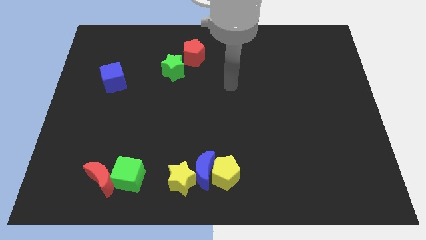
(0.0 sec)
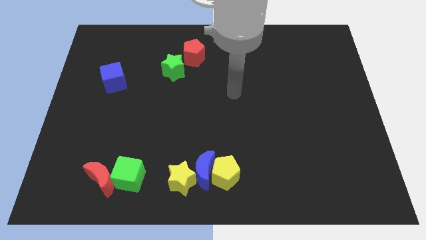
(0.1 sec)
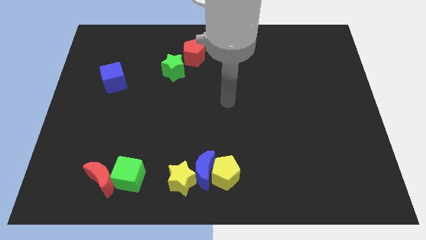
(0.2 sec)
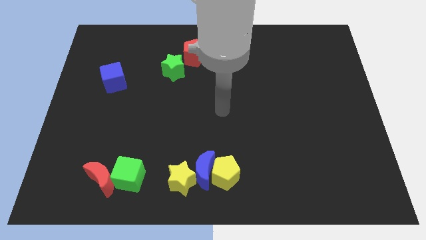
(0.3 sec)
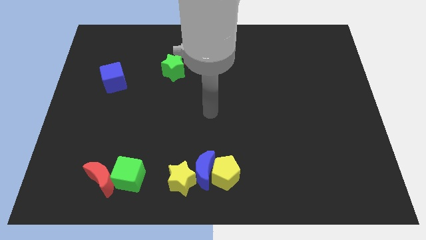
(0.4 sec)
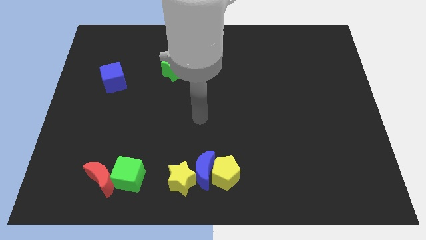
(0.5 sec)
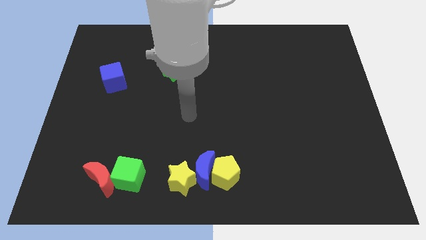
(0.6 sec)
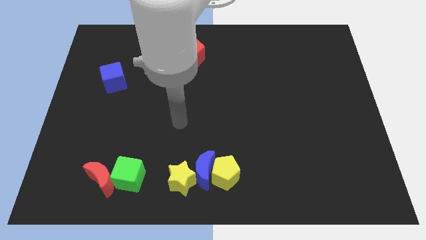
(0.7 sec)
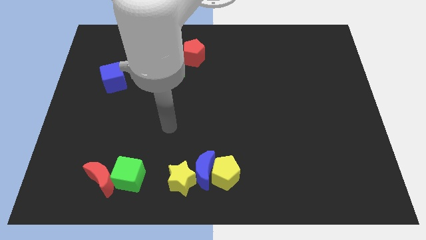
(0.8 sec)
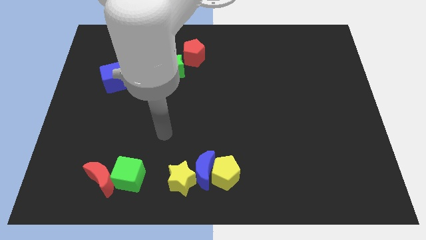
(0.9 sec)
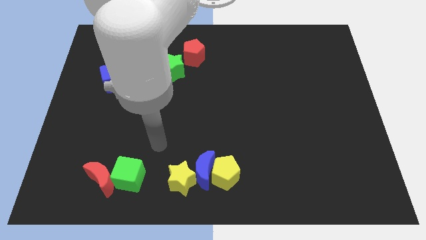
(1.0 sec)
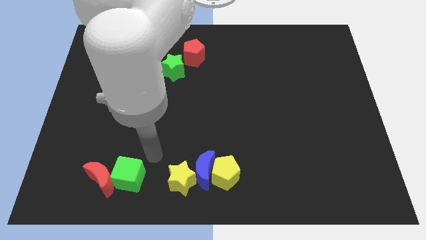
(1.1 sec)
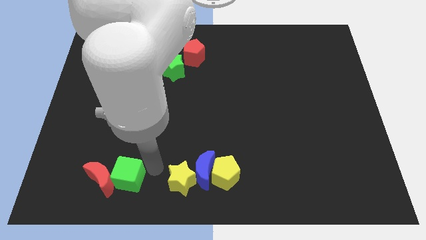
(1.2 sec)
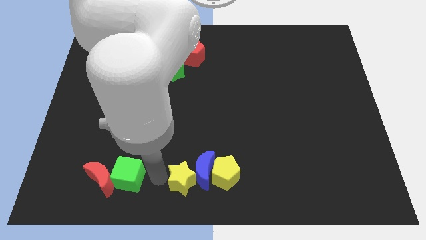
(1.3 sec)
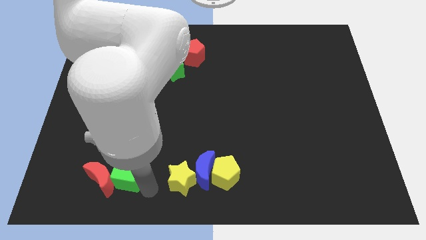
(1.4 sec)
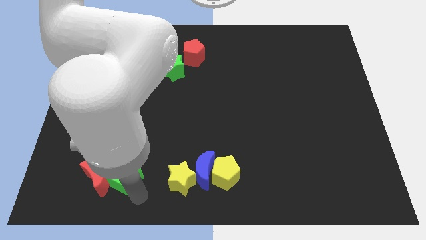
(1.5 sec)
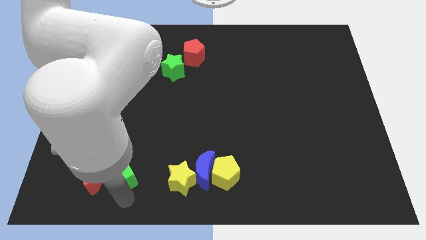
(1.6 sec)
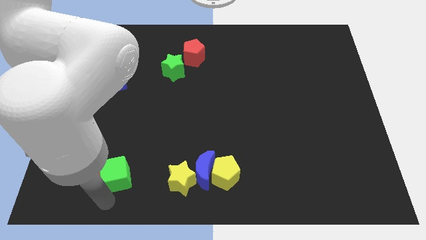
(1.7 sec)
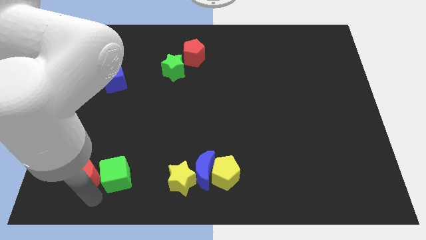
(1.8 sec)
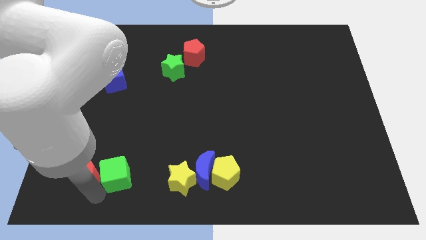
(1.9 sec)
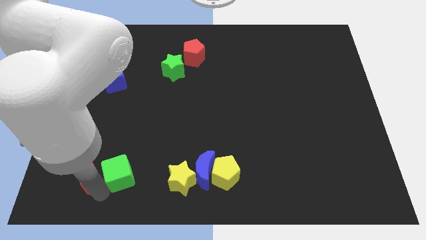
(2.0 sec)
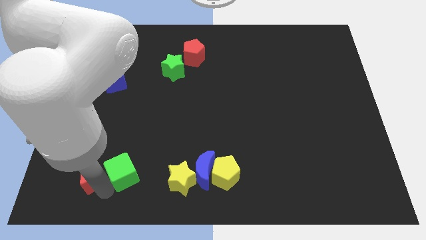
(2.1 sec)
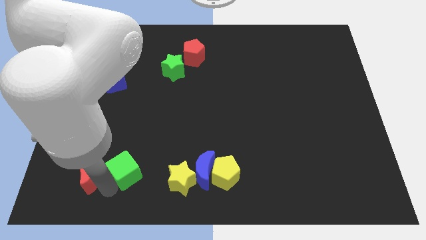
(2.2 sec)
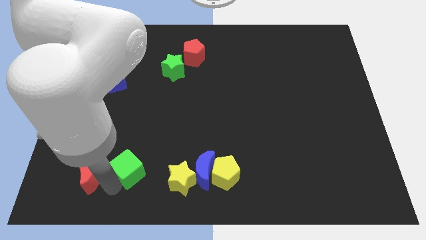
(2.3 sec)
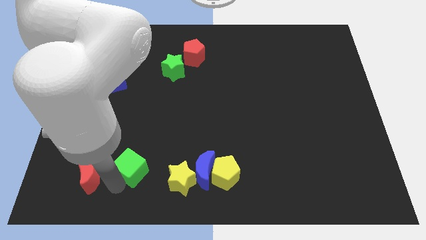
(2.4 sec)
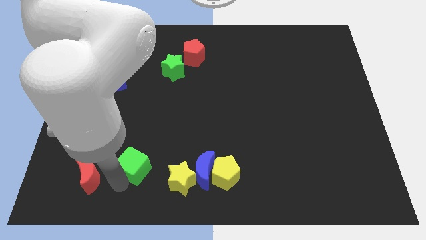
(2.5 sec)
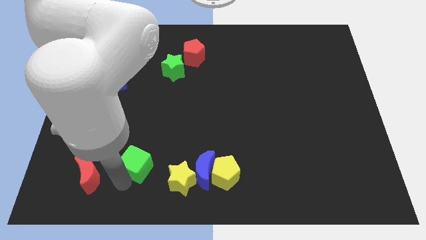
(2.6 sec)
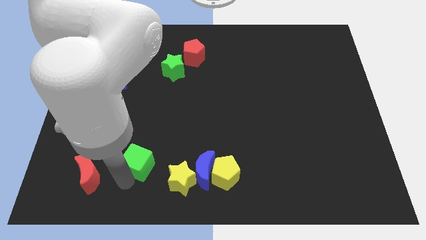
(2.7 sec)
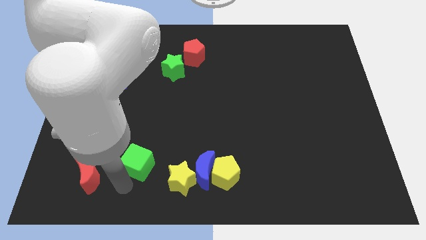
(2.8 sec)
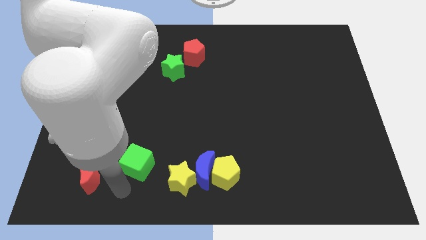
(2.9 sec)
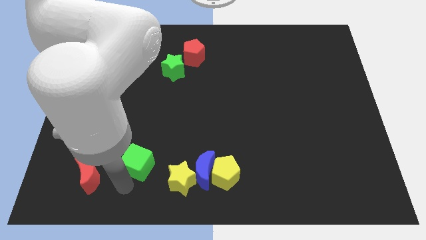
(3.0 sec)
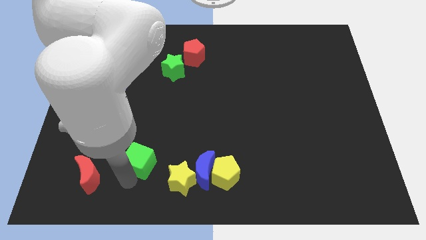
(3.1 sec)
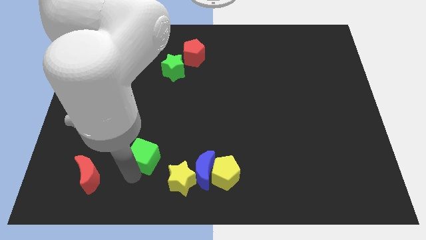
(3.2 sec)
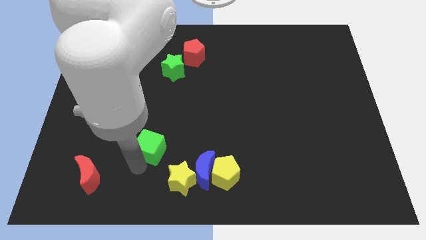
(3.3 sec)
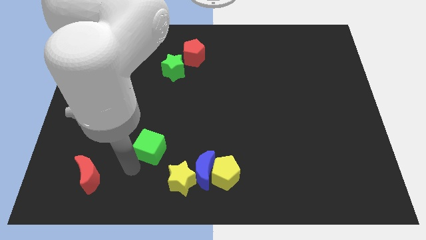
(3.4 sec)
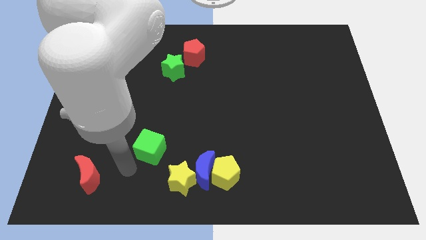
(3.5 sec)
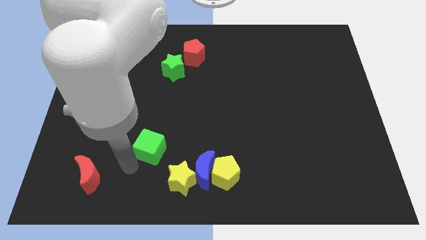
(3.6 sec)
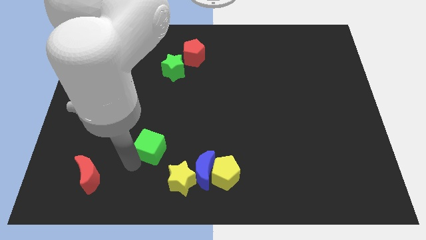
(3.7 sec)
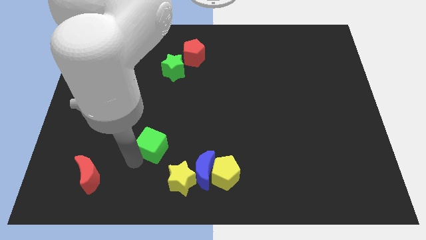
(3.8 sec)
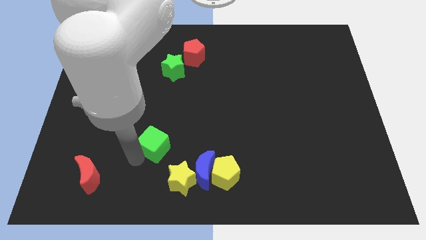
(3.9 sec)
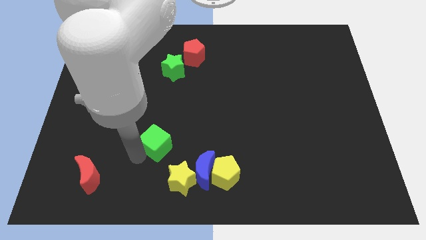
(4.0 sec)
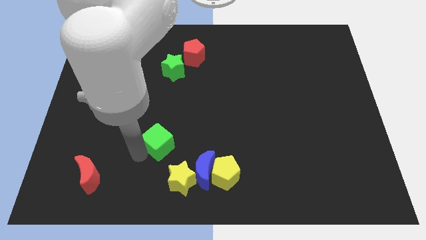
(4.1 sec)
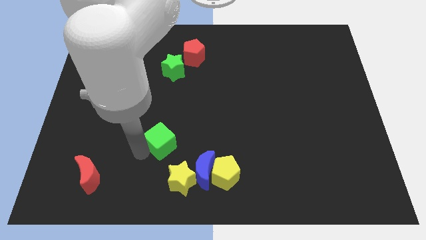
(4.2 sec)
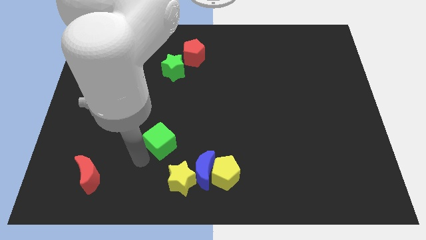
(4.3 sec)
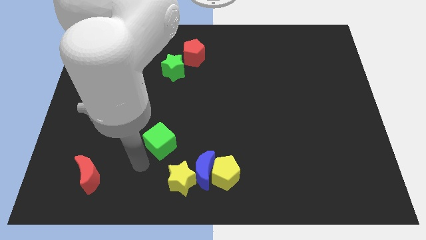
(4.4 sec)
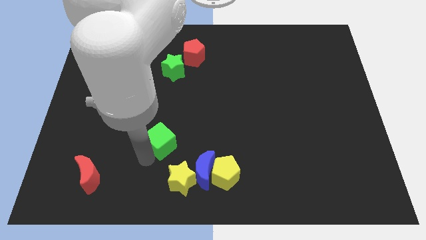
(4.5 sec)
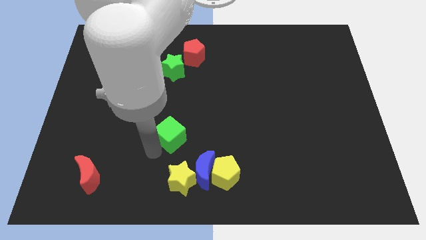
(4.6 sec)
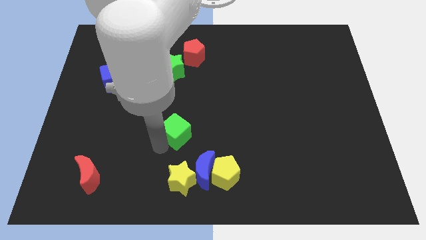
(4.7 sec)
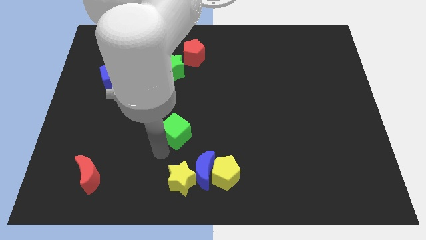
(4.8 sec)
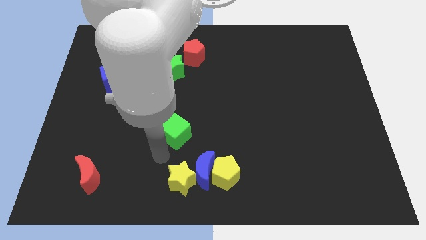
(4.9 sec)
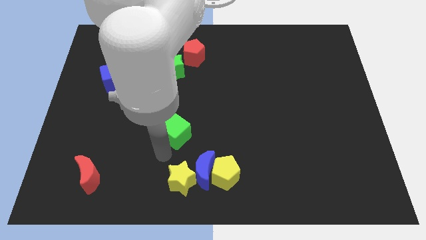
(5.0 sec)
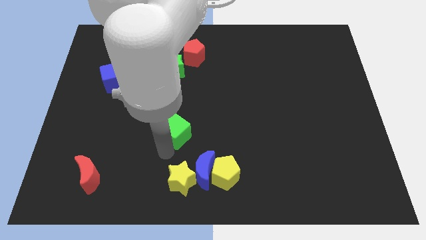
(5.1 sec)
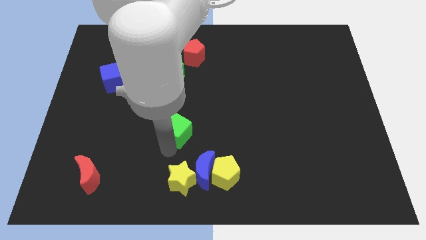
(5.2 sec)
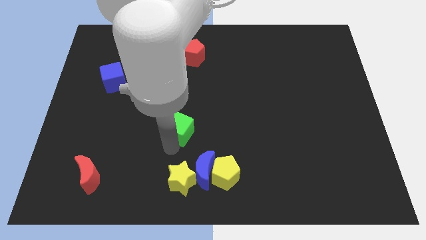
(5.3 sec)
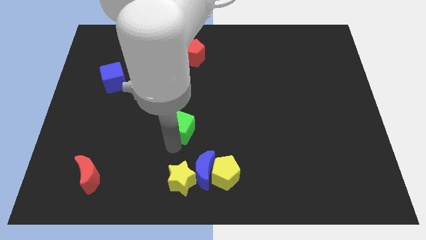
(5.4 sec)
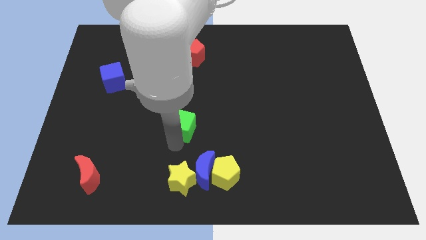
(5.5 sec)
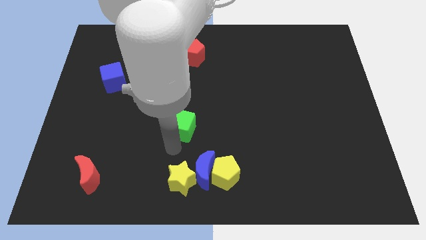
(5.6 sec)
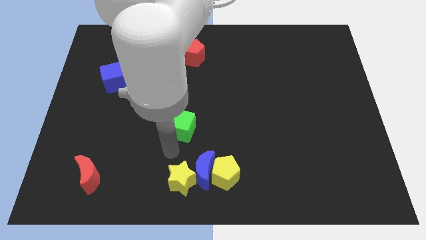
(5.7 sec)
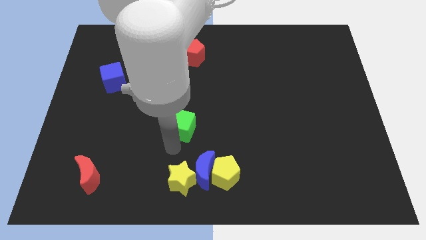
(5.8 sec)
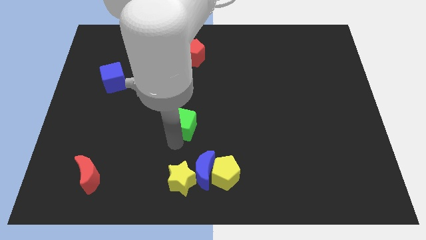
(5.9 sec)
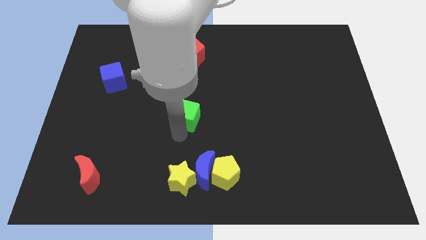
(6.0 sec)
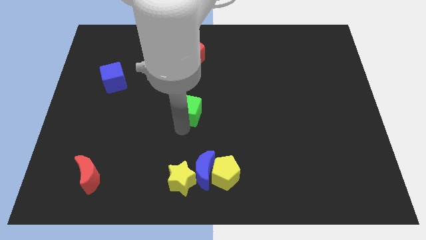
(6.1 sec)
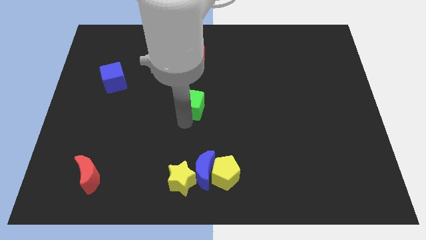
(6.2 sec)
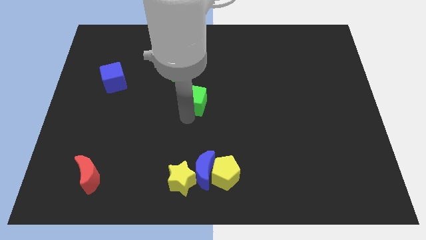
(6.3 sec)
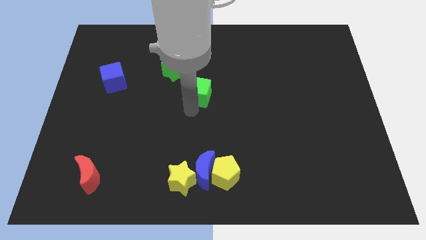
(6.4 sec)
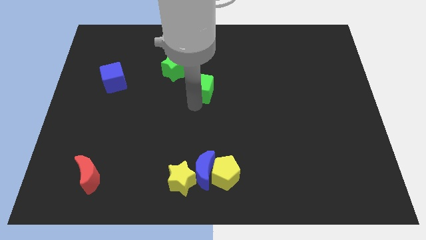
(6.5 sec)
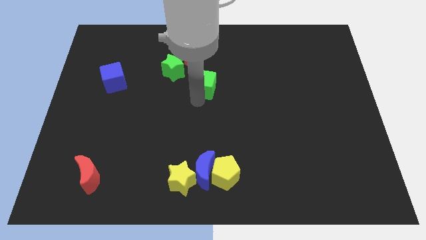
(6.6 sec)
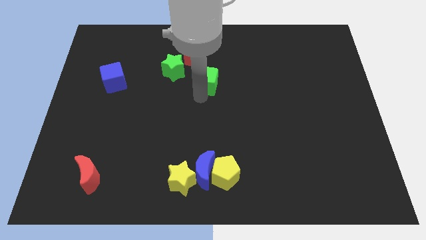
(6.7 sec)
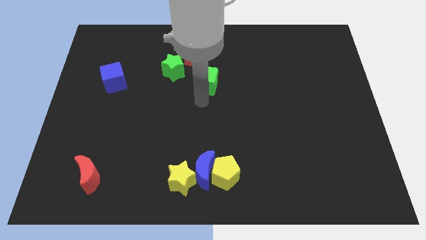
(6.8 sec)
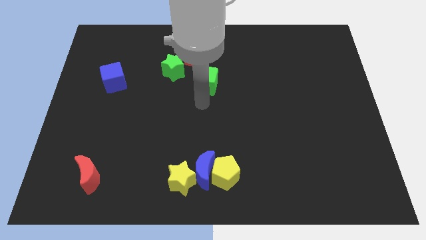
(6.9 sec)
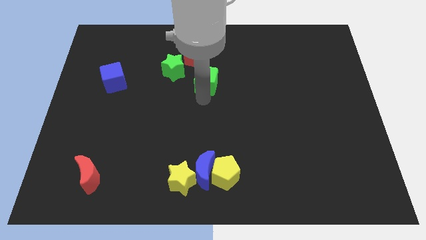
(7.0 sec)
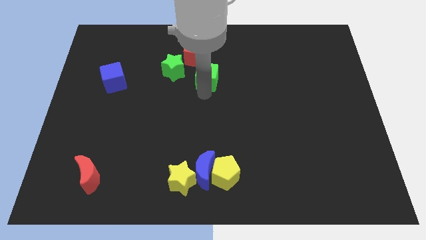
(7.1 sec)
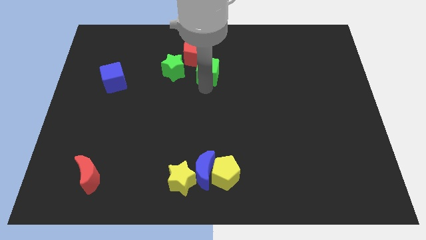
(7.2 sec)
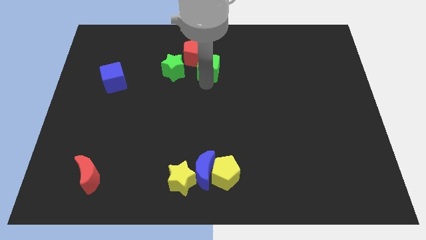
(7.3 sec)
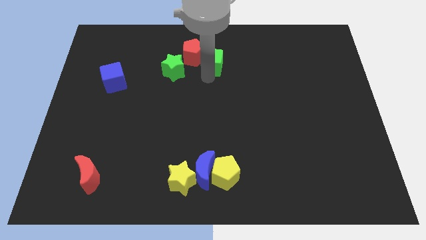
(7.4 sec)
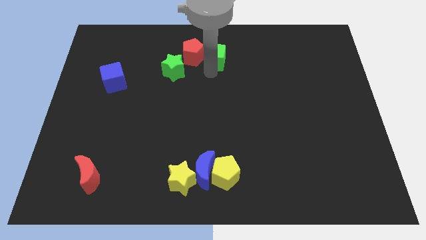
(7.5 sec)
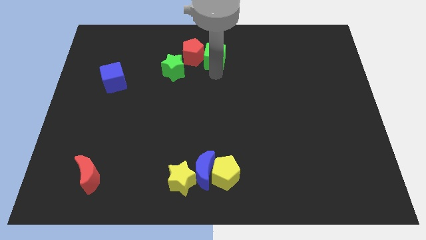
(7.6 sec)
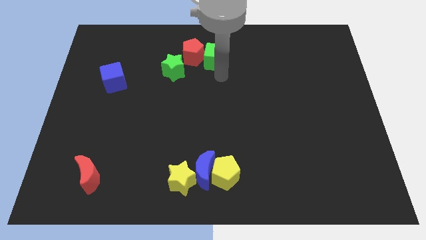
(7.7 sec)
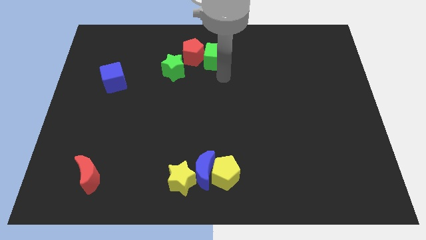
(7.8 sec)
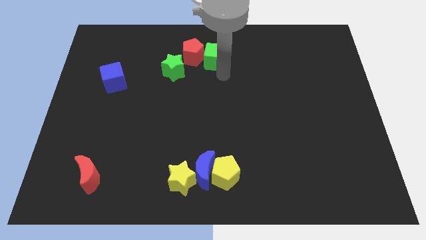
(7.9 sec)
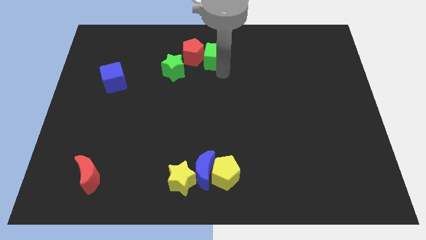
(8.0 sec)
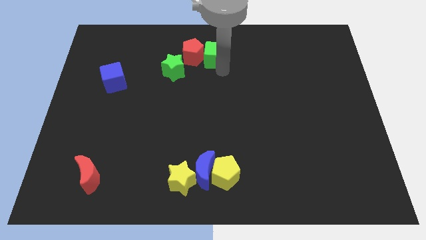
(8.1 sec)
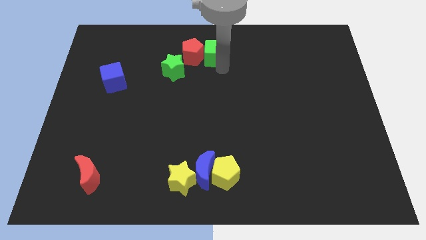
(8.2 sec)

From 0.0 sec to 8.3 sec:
slide the green cube to the towards your base
